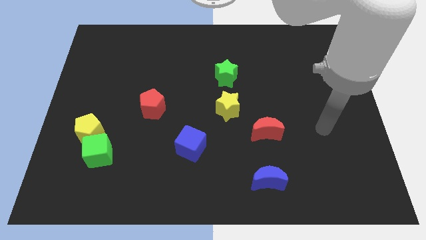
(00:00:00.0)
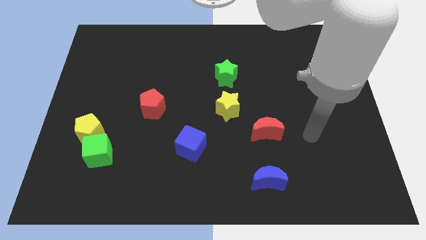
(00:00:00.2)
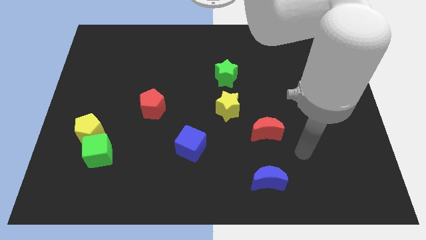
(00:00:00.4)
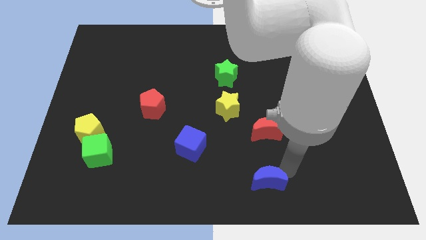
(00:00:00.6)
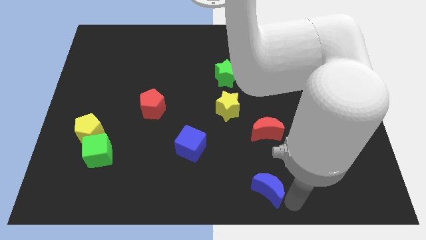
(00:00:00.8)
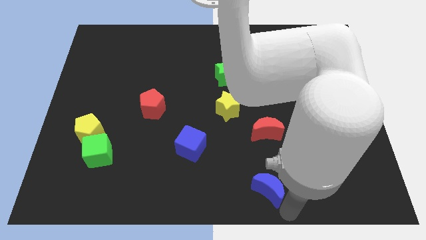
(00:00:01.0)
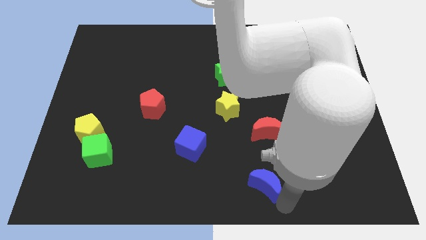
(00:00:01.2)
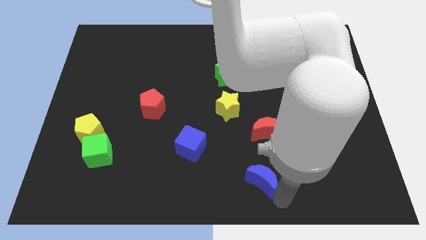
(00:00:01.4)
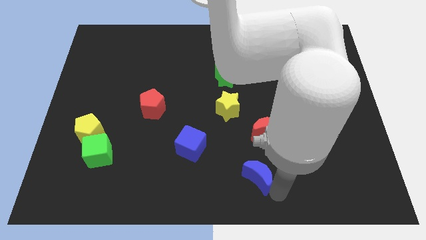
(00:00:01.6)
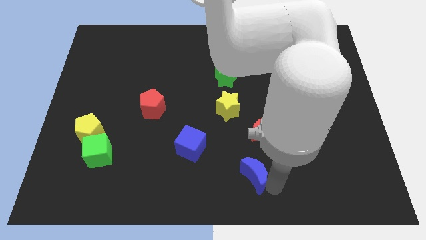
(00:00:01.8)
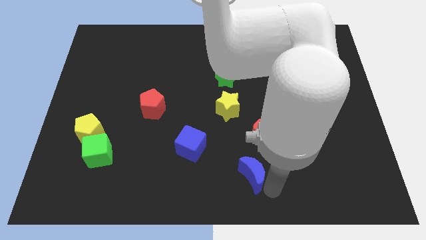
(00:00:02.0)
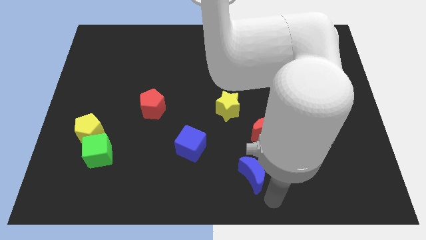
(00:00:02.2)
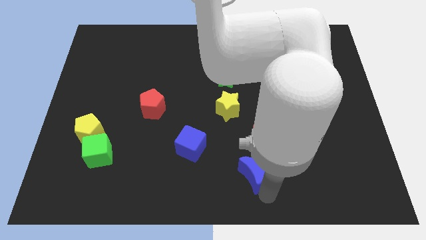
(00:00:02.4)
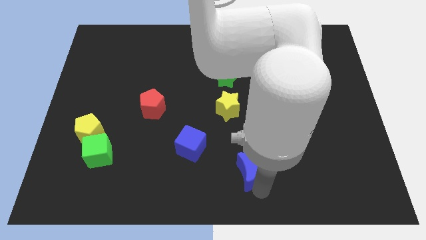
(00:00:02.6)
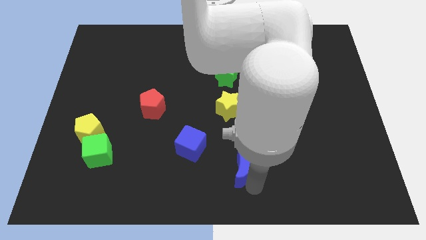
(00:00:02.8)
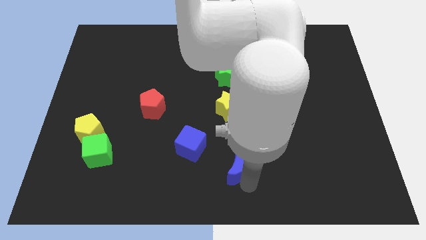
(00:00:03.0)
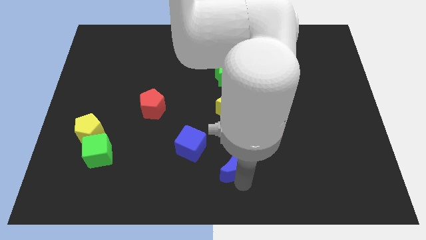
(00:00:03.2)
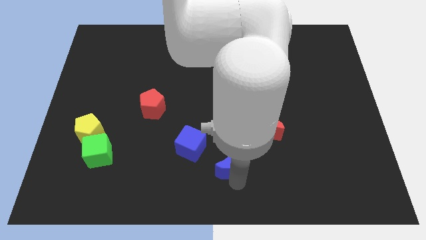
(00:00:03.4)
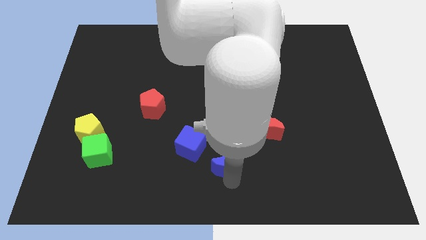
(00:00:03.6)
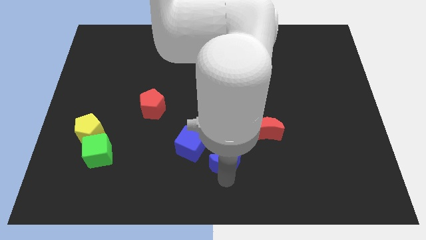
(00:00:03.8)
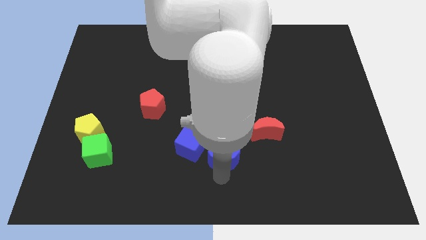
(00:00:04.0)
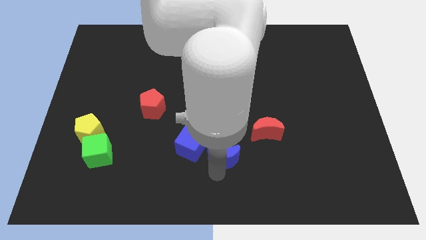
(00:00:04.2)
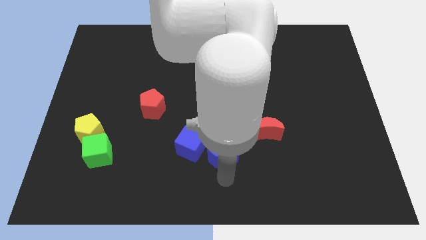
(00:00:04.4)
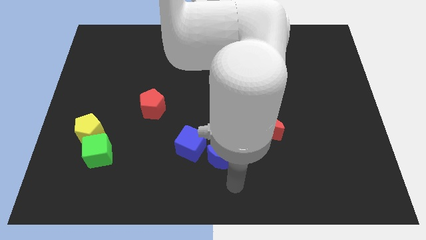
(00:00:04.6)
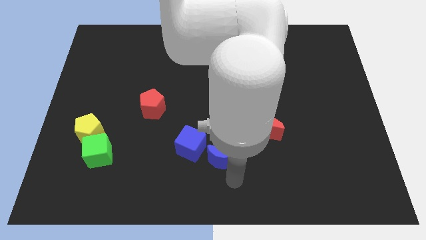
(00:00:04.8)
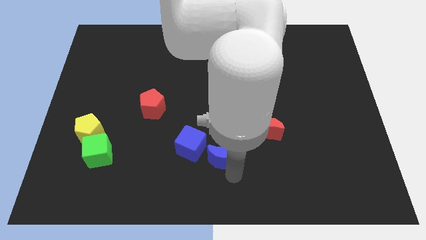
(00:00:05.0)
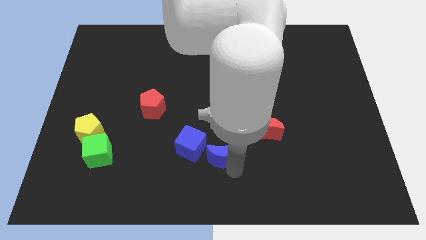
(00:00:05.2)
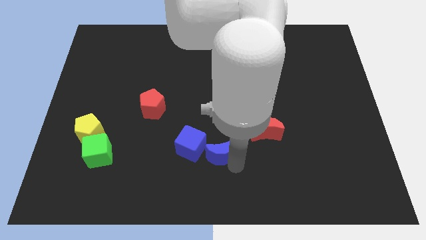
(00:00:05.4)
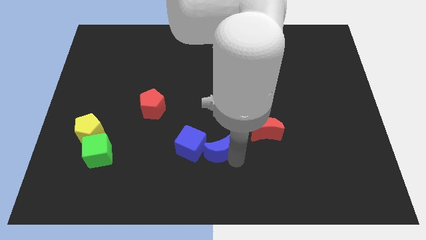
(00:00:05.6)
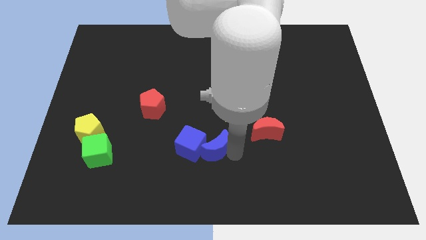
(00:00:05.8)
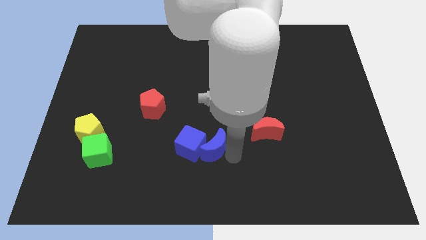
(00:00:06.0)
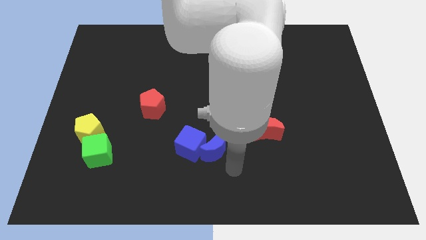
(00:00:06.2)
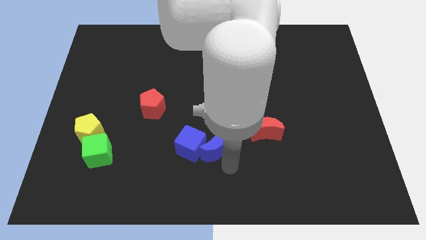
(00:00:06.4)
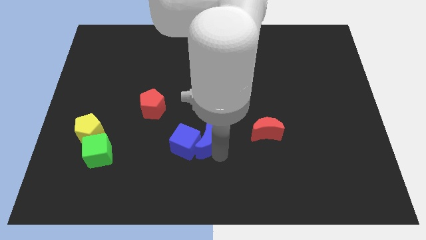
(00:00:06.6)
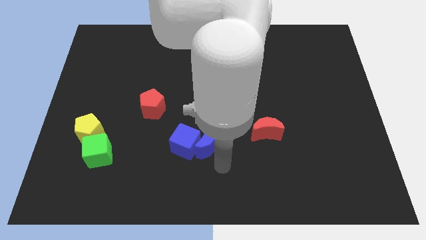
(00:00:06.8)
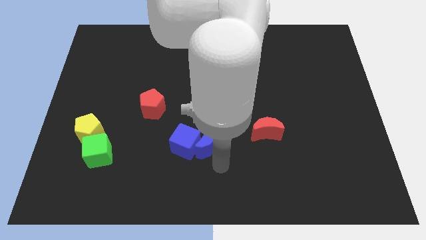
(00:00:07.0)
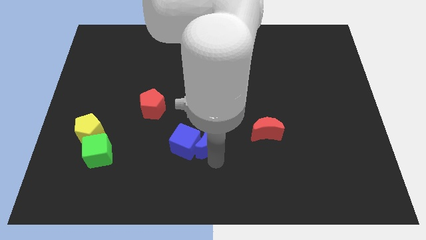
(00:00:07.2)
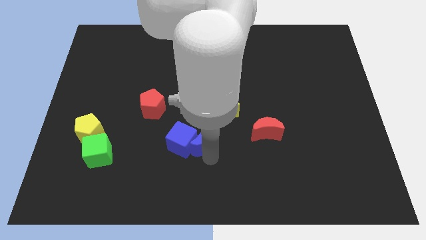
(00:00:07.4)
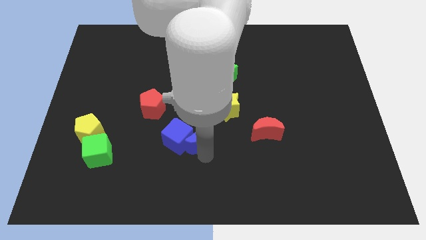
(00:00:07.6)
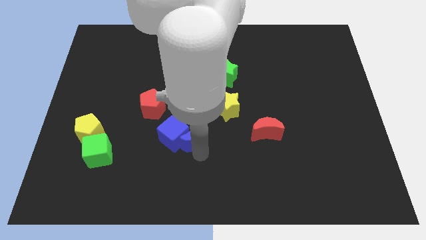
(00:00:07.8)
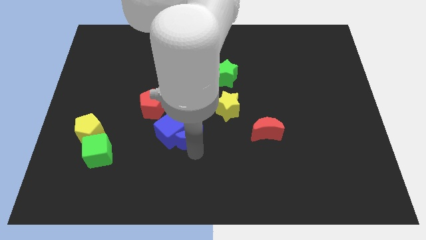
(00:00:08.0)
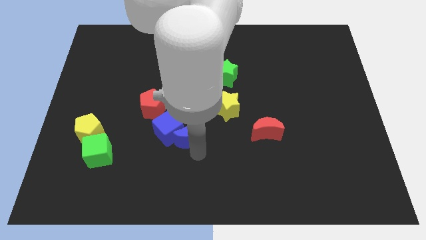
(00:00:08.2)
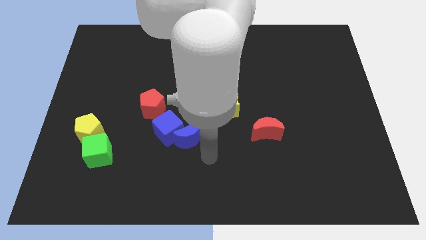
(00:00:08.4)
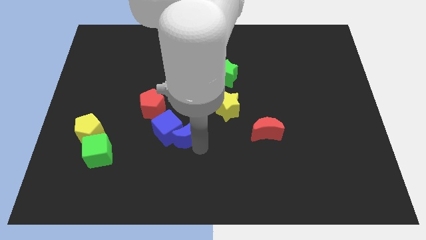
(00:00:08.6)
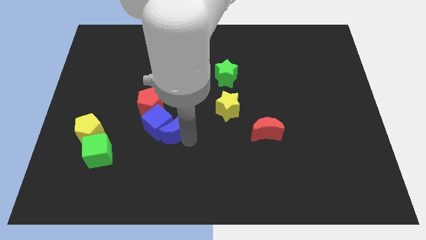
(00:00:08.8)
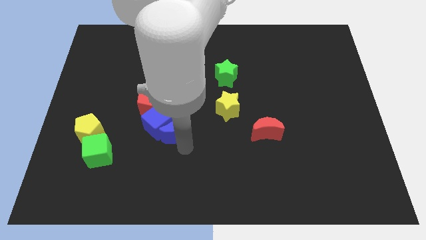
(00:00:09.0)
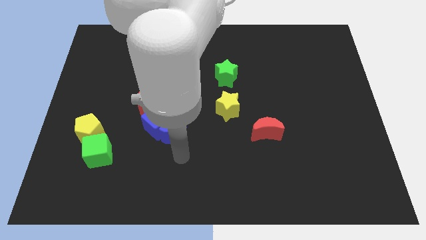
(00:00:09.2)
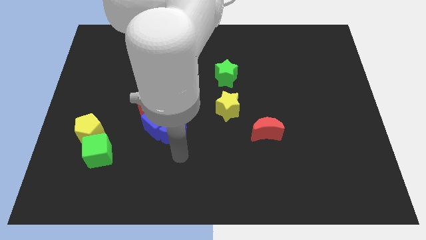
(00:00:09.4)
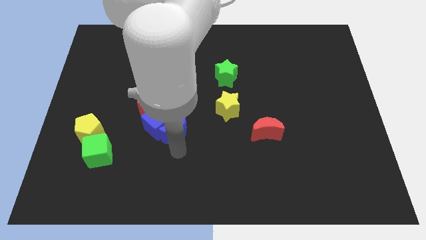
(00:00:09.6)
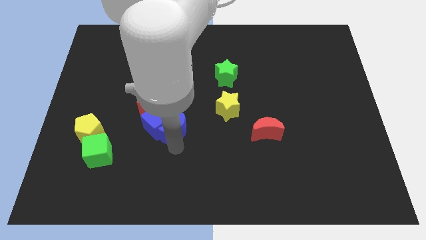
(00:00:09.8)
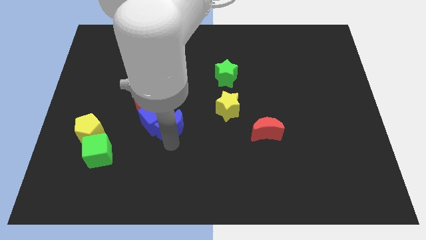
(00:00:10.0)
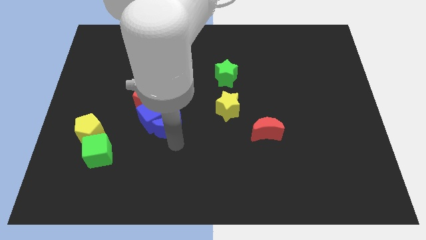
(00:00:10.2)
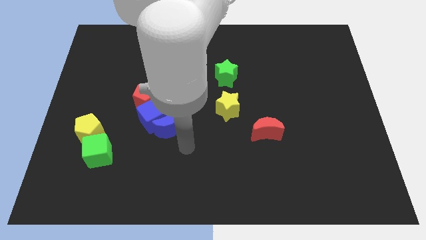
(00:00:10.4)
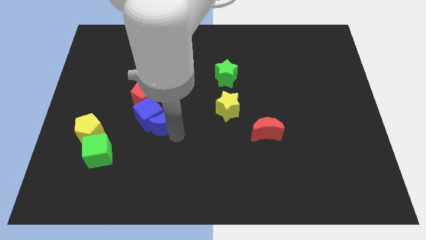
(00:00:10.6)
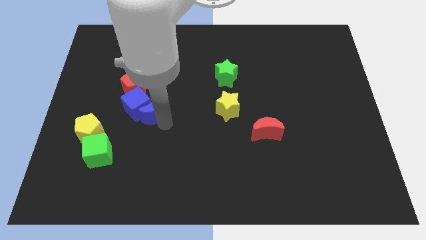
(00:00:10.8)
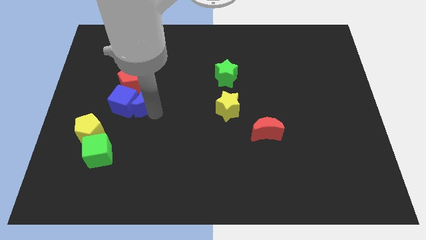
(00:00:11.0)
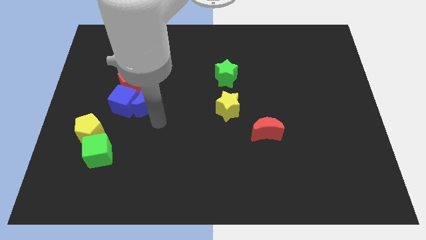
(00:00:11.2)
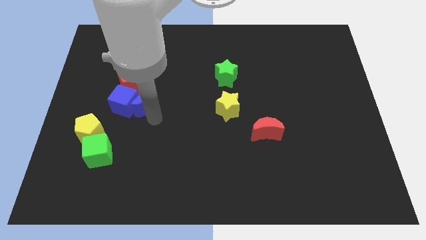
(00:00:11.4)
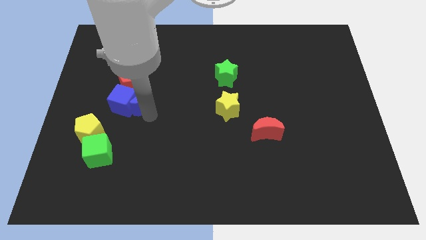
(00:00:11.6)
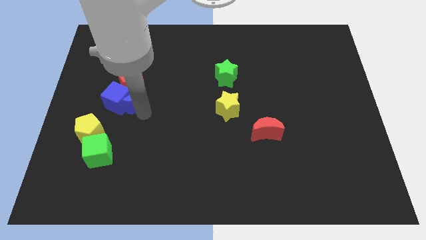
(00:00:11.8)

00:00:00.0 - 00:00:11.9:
put the blue moon close to the red pentagon

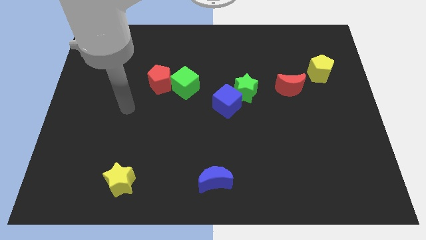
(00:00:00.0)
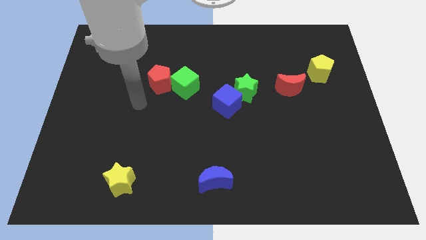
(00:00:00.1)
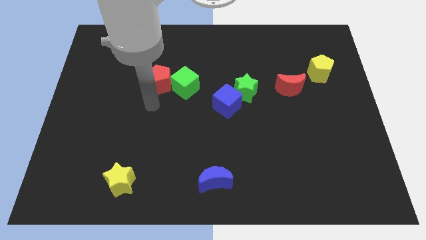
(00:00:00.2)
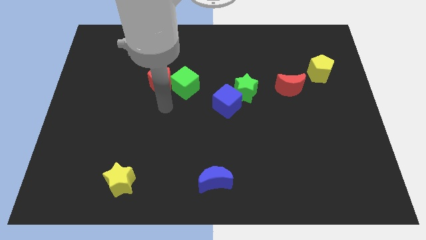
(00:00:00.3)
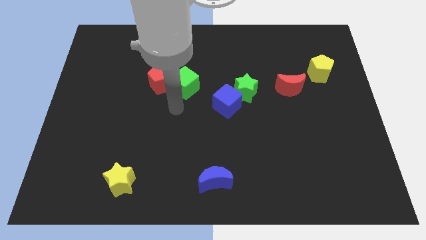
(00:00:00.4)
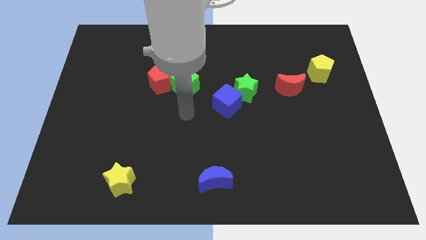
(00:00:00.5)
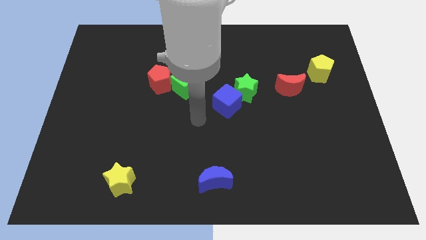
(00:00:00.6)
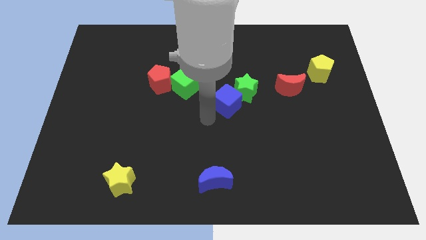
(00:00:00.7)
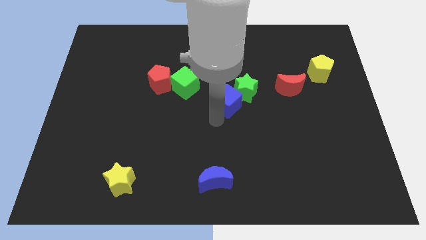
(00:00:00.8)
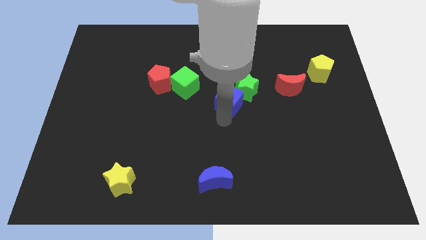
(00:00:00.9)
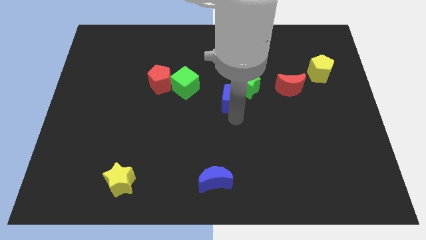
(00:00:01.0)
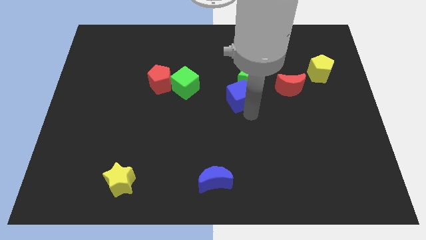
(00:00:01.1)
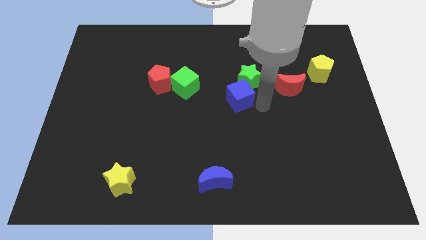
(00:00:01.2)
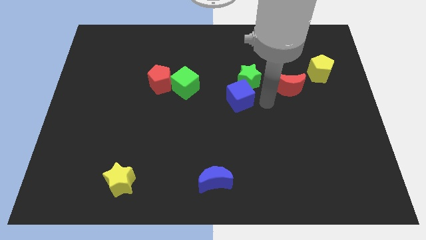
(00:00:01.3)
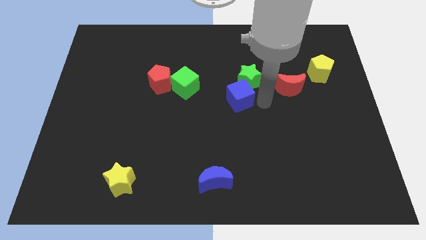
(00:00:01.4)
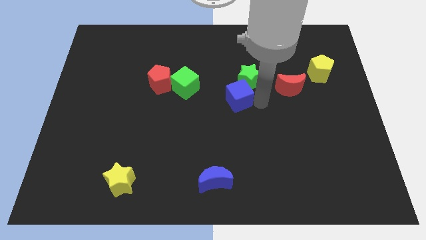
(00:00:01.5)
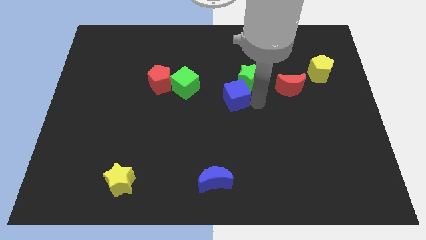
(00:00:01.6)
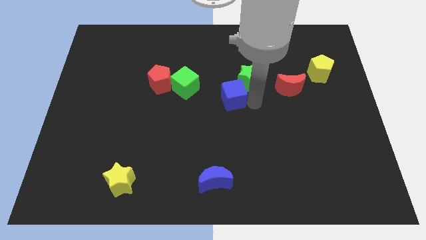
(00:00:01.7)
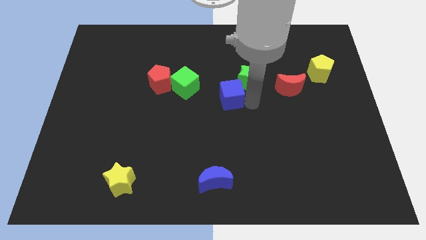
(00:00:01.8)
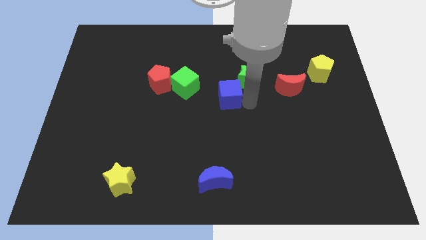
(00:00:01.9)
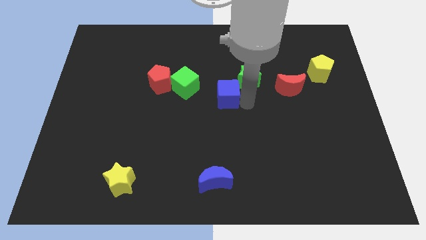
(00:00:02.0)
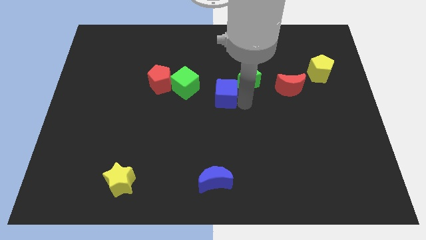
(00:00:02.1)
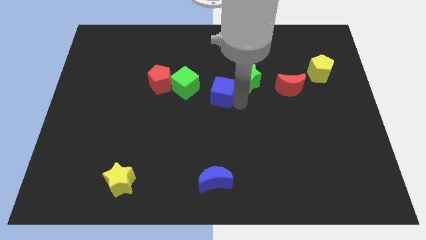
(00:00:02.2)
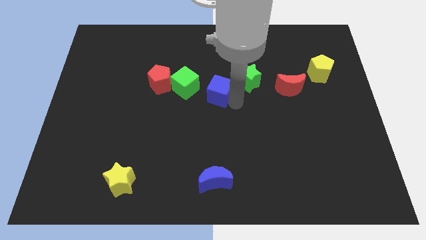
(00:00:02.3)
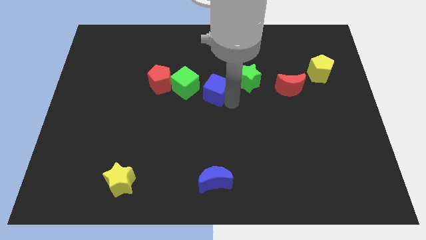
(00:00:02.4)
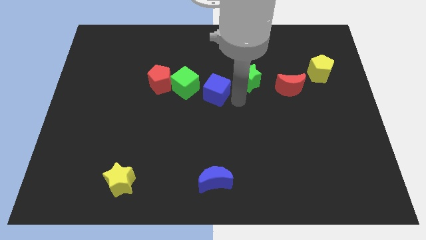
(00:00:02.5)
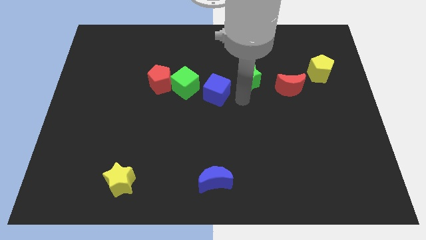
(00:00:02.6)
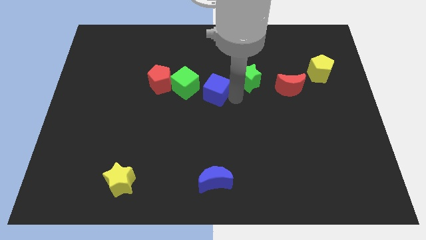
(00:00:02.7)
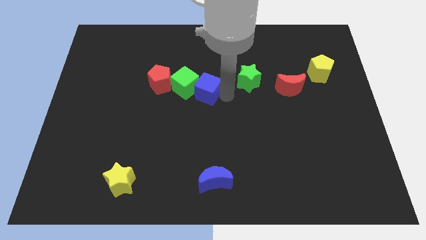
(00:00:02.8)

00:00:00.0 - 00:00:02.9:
push the blue cube to the green cube
